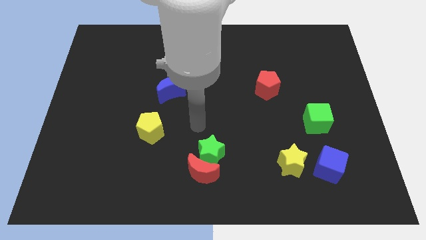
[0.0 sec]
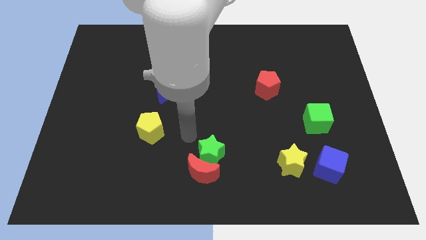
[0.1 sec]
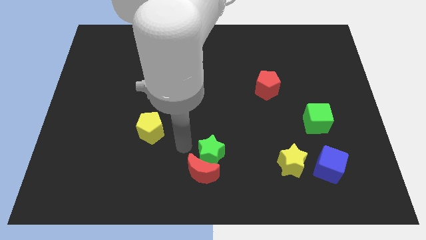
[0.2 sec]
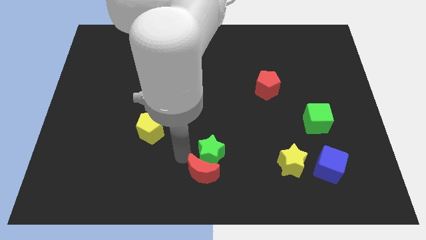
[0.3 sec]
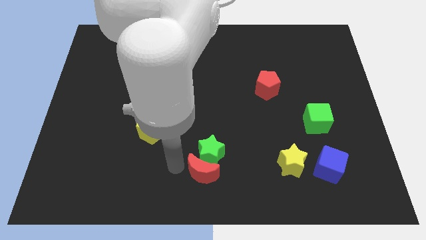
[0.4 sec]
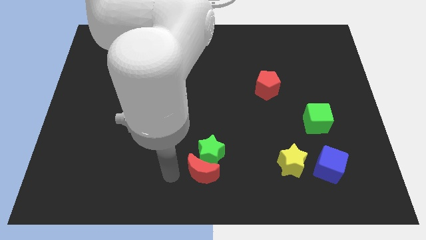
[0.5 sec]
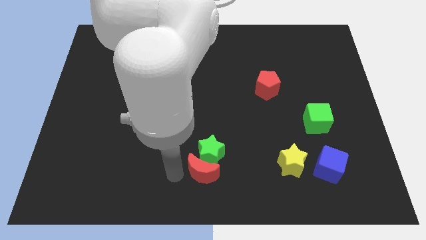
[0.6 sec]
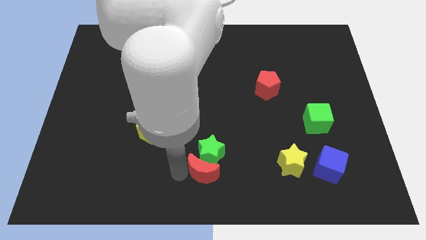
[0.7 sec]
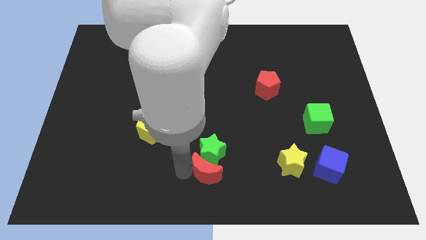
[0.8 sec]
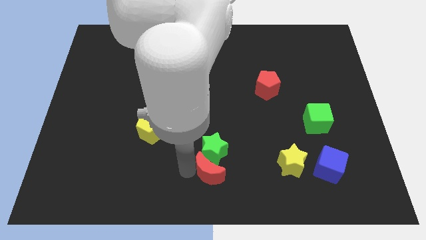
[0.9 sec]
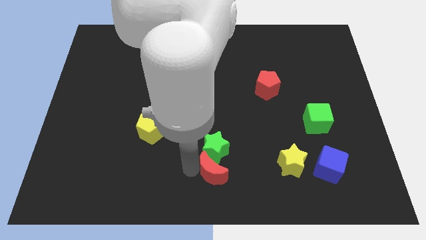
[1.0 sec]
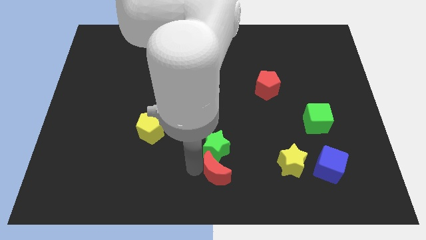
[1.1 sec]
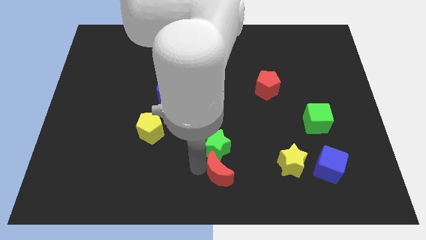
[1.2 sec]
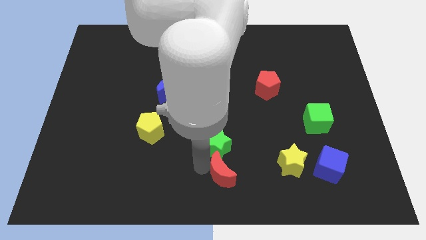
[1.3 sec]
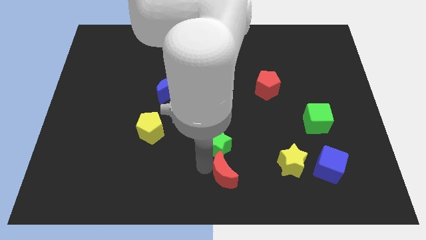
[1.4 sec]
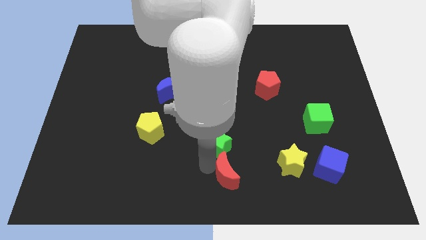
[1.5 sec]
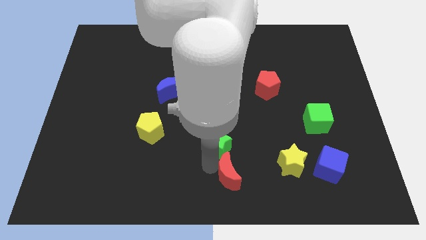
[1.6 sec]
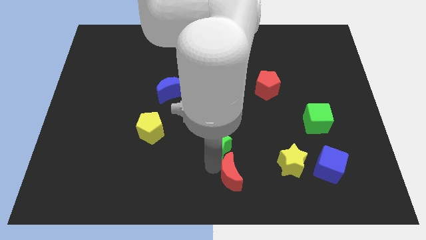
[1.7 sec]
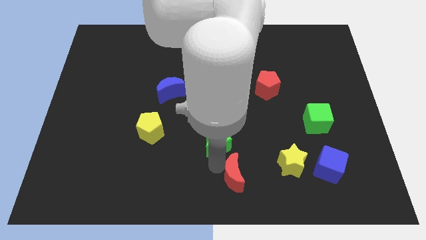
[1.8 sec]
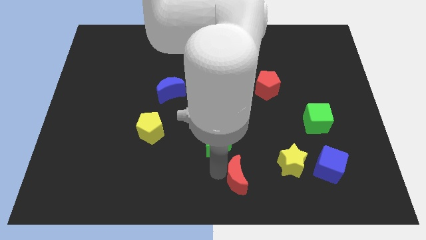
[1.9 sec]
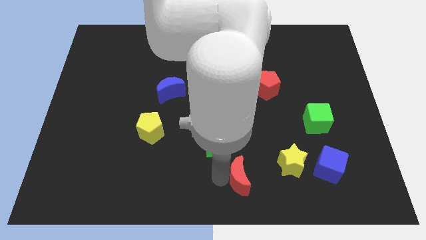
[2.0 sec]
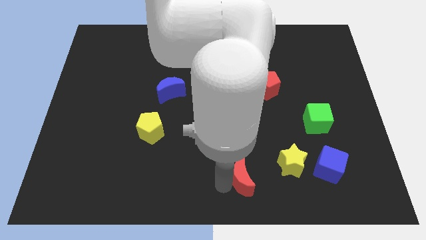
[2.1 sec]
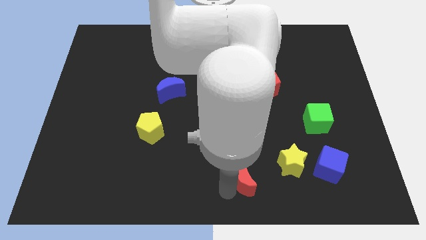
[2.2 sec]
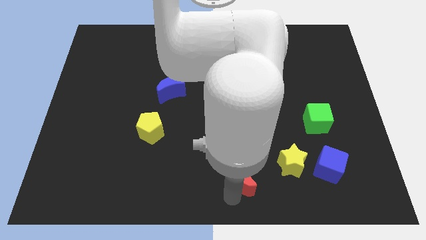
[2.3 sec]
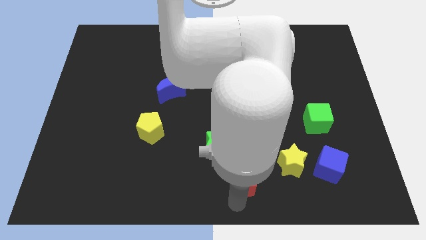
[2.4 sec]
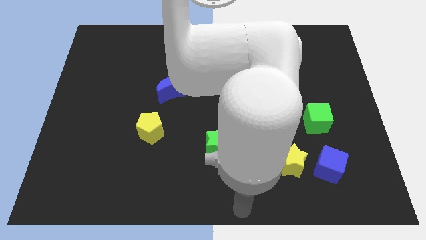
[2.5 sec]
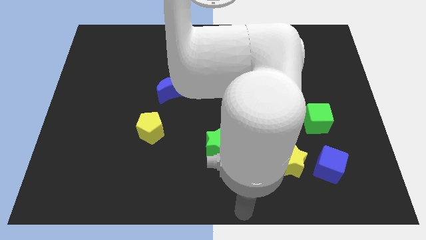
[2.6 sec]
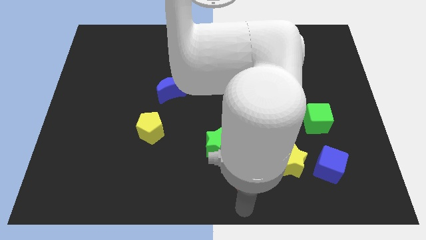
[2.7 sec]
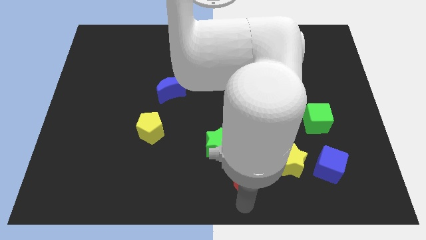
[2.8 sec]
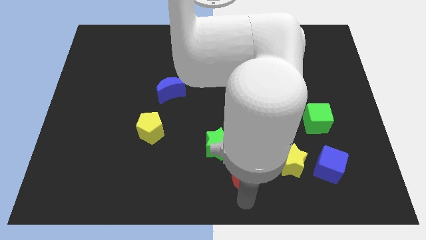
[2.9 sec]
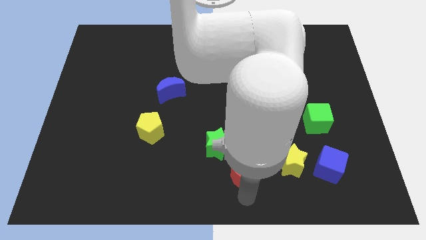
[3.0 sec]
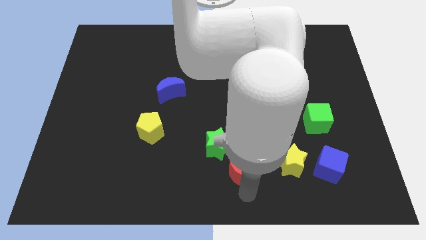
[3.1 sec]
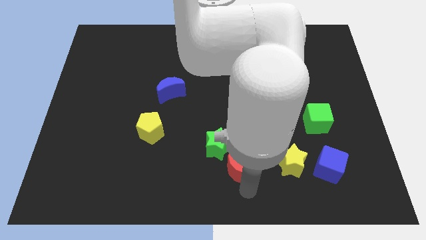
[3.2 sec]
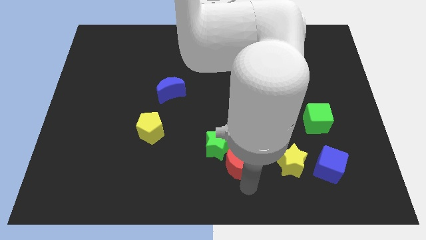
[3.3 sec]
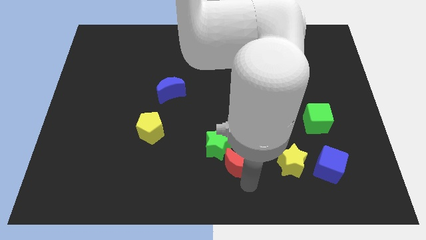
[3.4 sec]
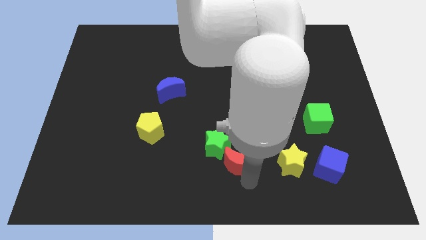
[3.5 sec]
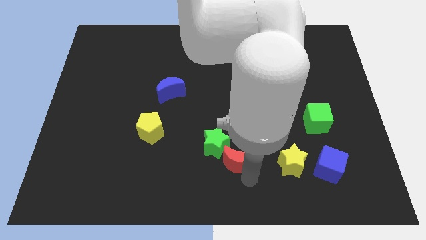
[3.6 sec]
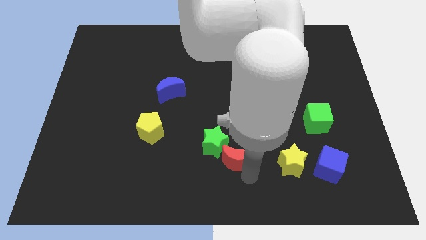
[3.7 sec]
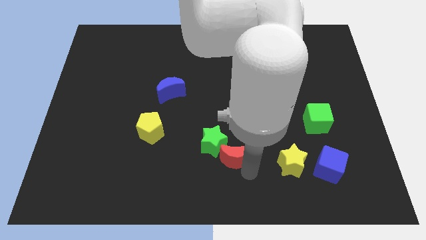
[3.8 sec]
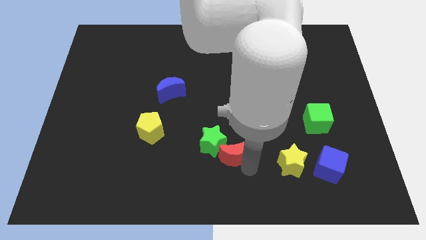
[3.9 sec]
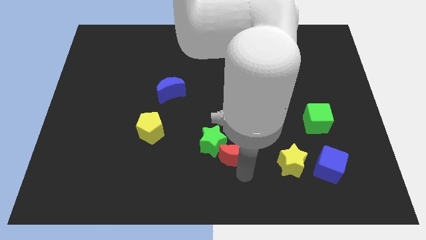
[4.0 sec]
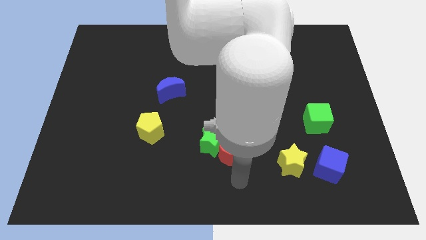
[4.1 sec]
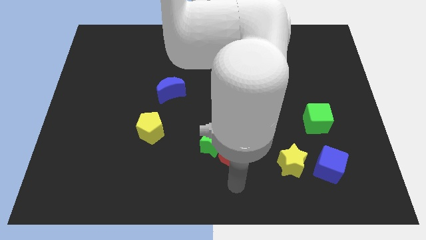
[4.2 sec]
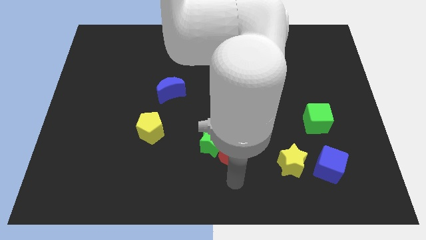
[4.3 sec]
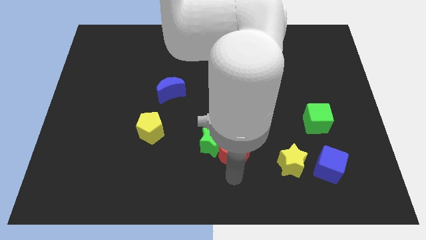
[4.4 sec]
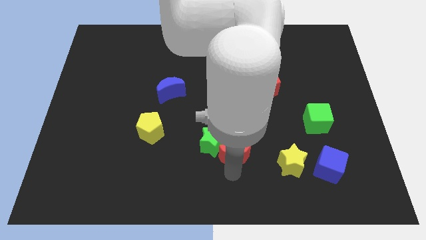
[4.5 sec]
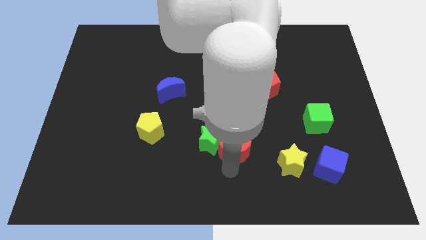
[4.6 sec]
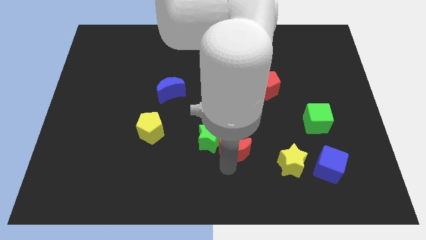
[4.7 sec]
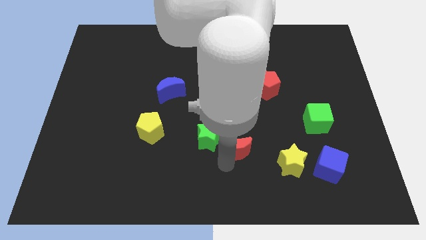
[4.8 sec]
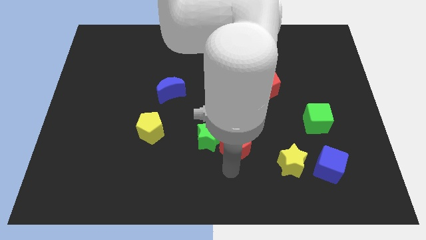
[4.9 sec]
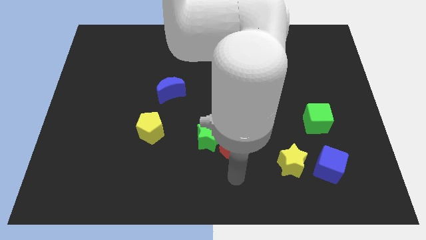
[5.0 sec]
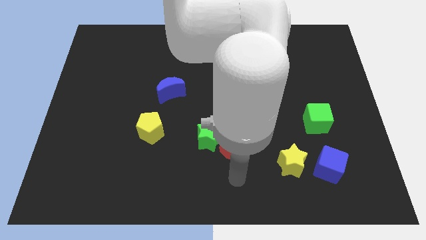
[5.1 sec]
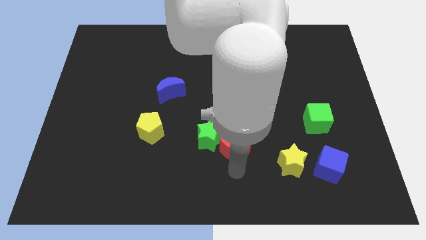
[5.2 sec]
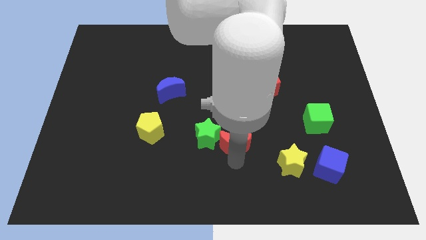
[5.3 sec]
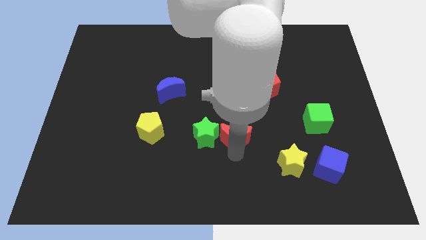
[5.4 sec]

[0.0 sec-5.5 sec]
move the red moon to the top right of the green star

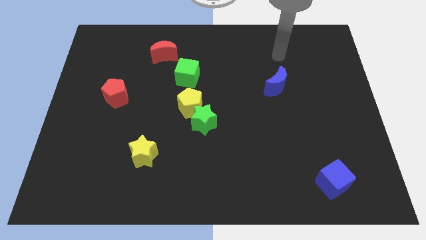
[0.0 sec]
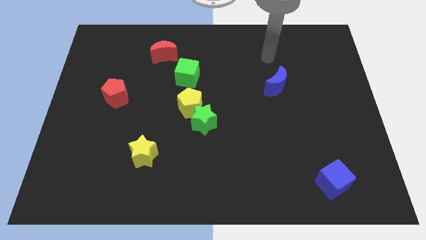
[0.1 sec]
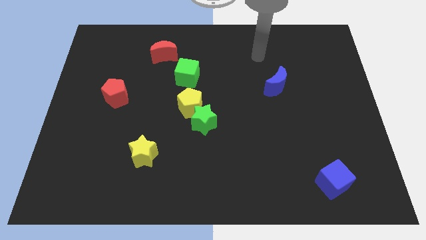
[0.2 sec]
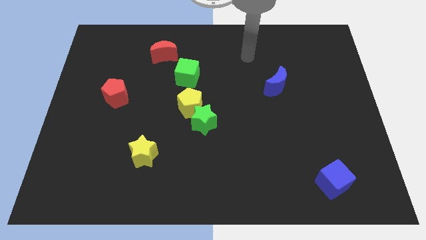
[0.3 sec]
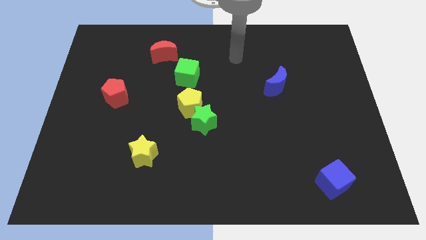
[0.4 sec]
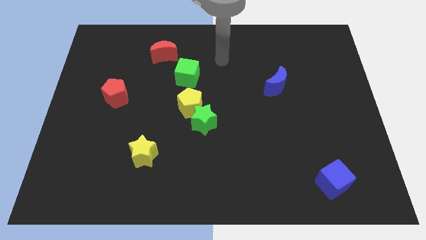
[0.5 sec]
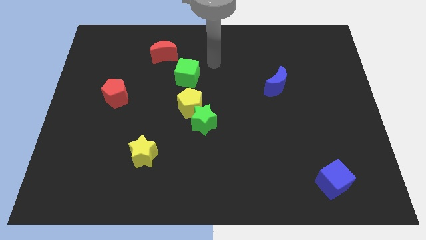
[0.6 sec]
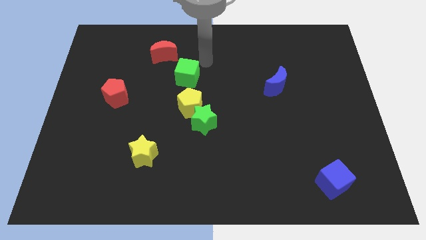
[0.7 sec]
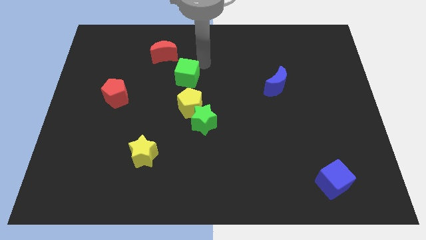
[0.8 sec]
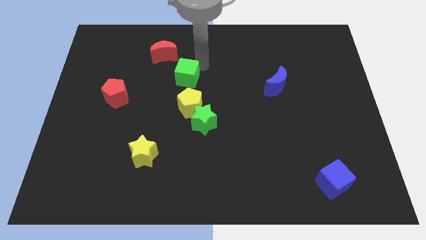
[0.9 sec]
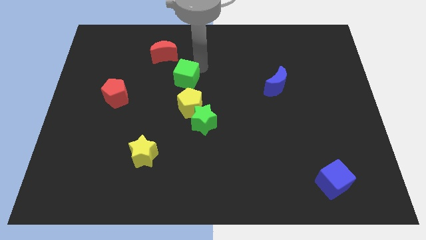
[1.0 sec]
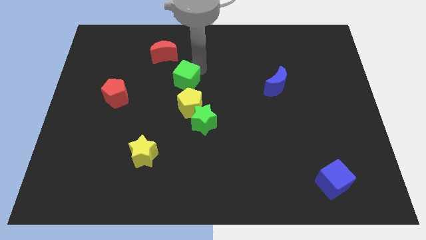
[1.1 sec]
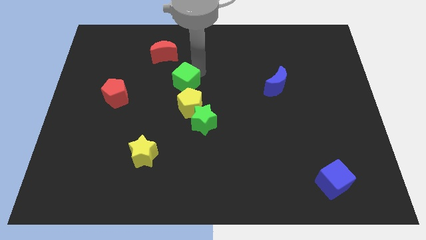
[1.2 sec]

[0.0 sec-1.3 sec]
move the green cube diagonally up and to the left of the yellow pentagon
